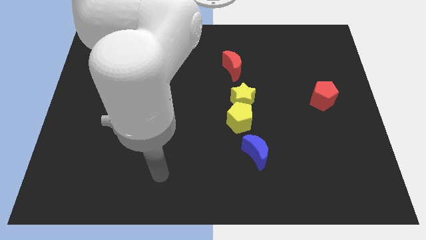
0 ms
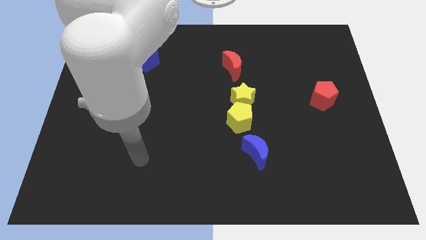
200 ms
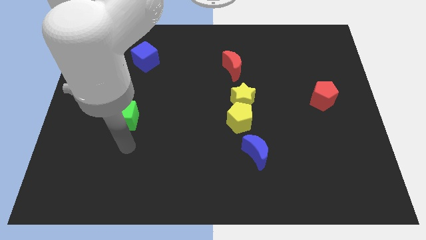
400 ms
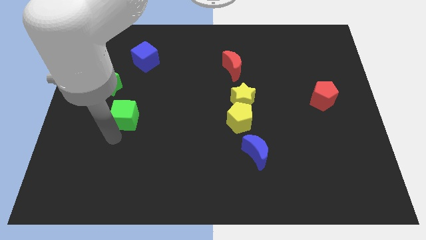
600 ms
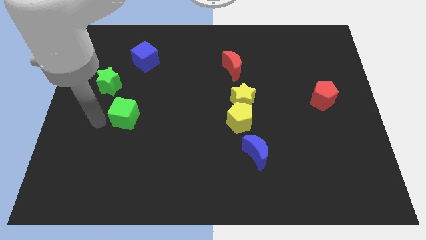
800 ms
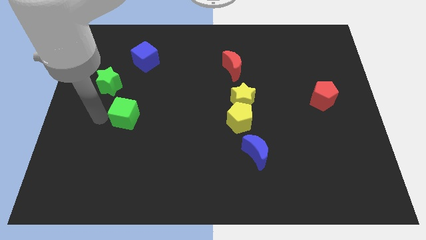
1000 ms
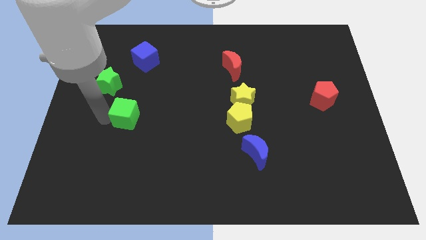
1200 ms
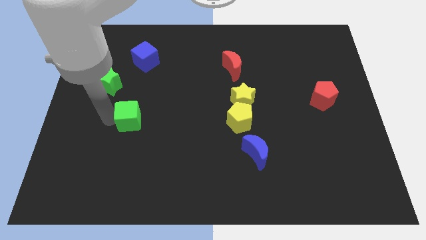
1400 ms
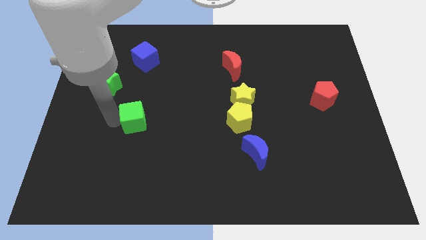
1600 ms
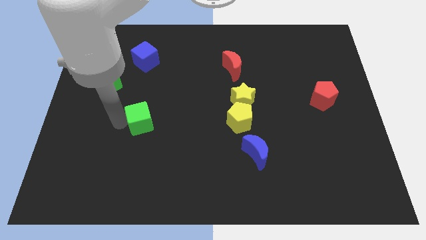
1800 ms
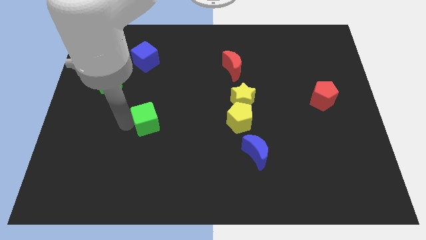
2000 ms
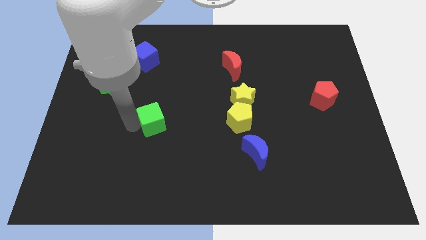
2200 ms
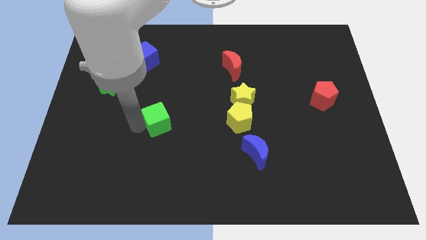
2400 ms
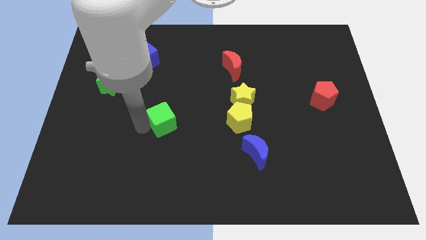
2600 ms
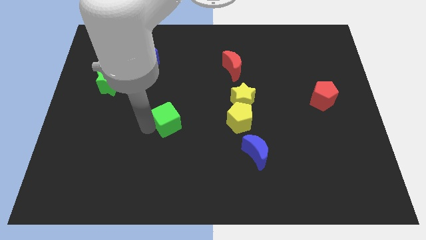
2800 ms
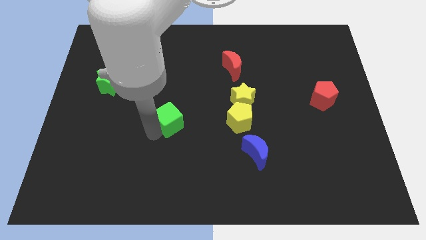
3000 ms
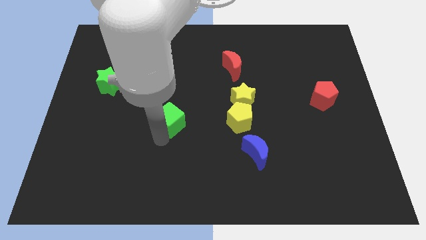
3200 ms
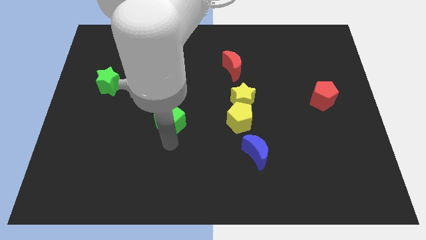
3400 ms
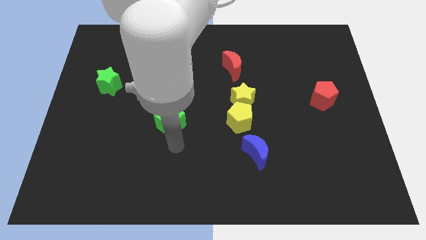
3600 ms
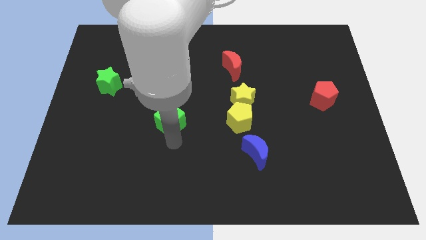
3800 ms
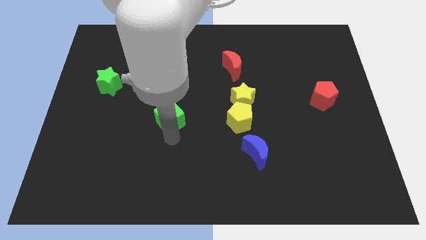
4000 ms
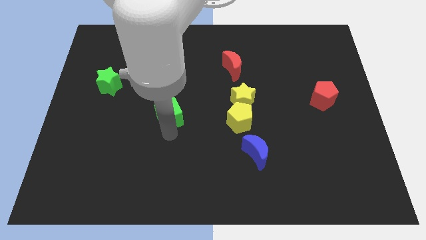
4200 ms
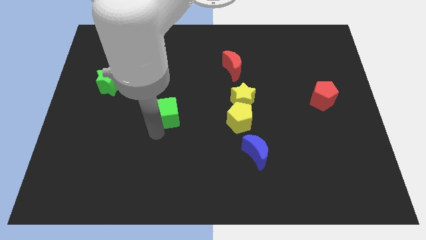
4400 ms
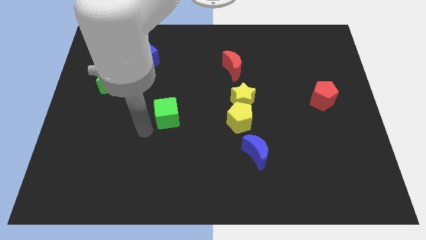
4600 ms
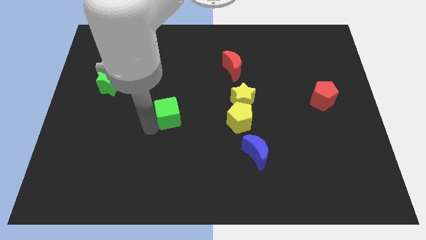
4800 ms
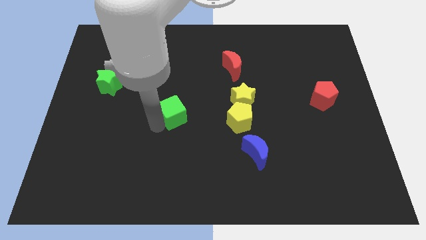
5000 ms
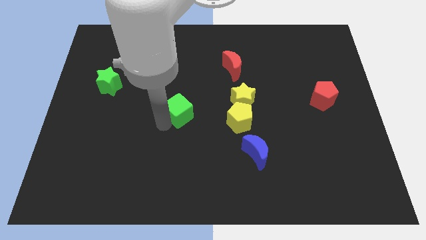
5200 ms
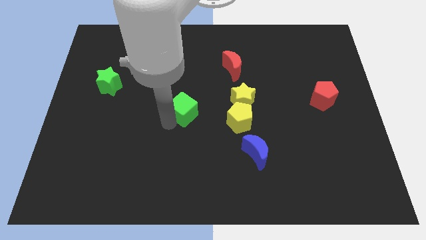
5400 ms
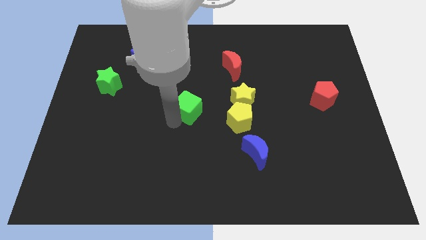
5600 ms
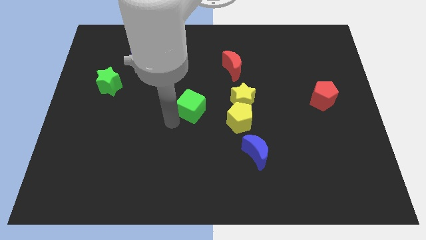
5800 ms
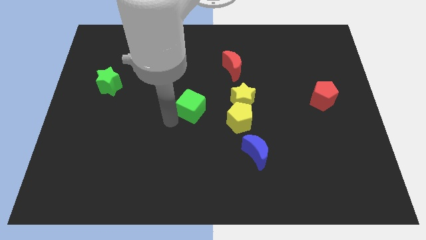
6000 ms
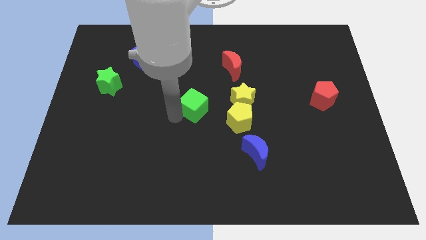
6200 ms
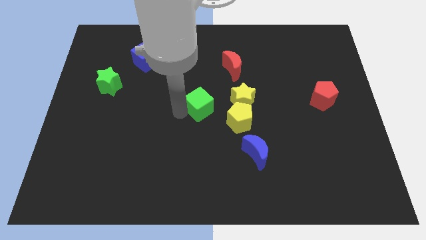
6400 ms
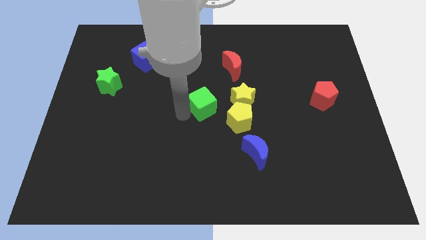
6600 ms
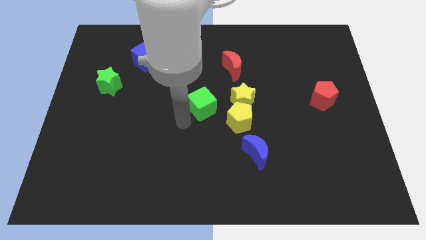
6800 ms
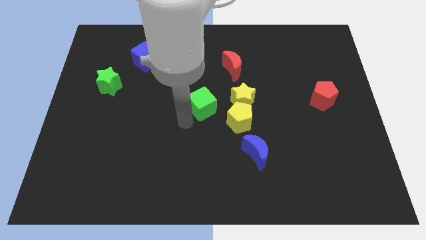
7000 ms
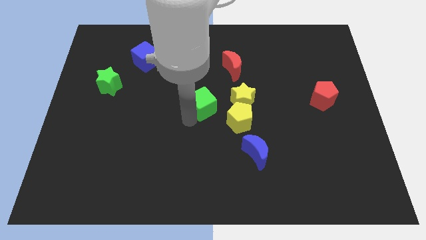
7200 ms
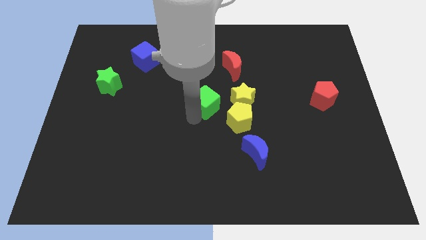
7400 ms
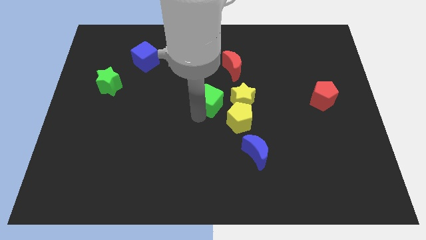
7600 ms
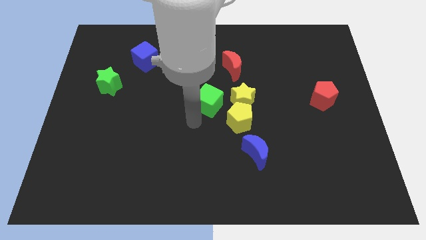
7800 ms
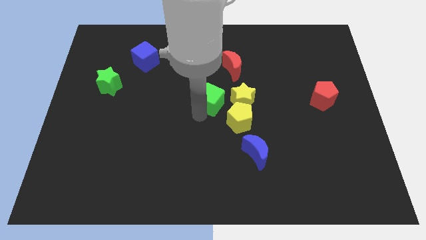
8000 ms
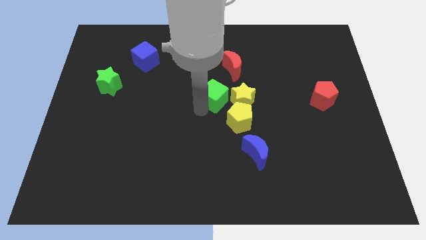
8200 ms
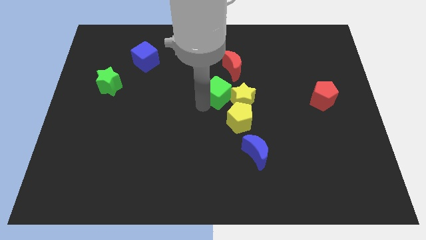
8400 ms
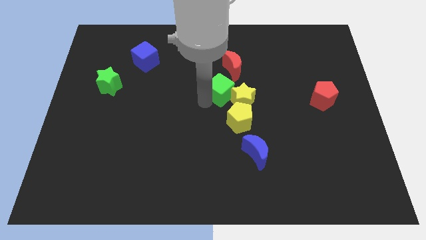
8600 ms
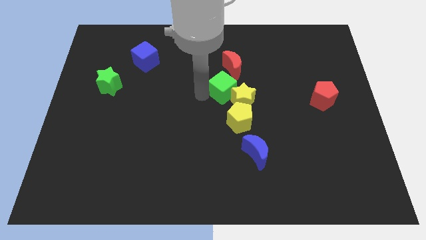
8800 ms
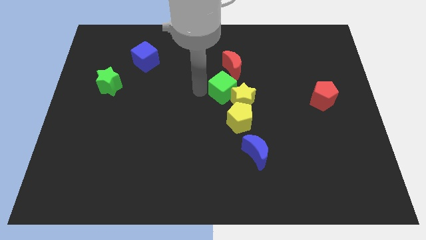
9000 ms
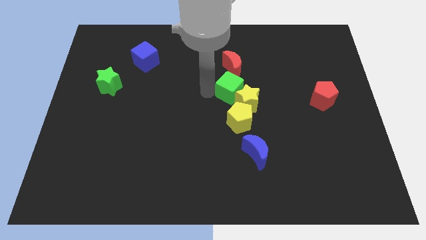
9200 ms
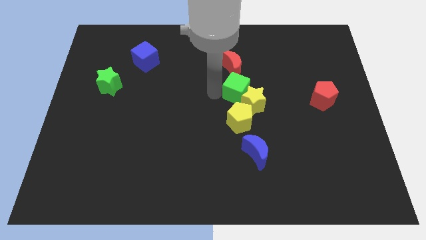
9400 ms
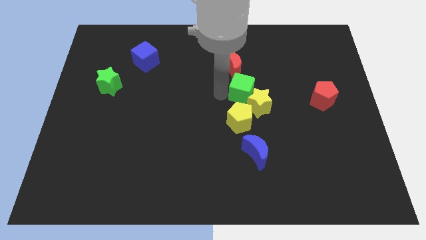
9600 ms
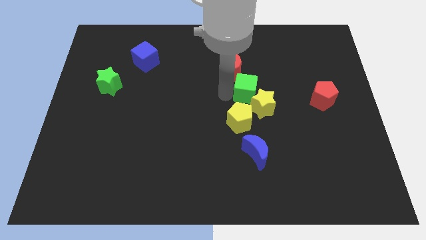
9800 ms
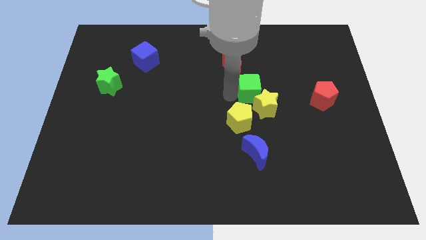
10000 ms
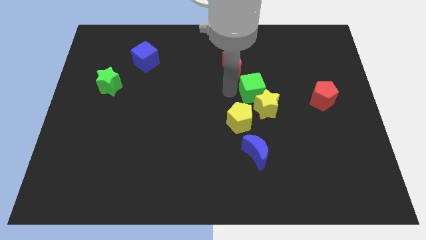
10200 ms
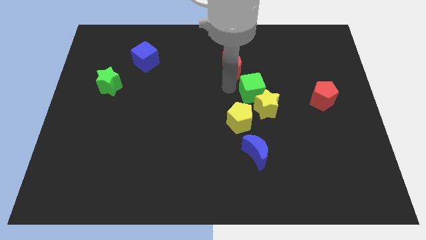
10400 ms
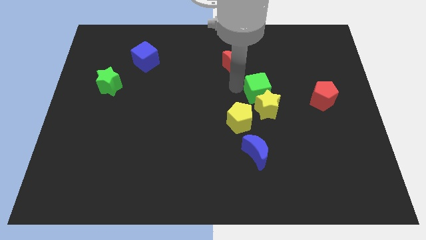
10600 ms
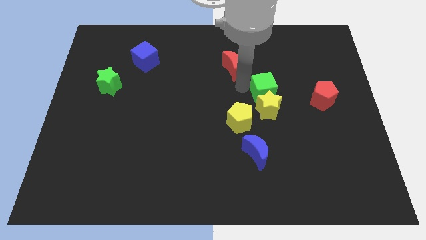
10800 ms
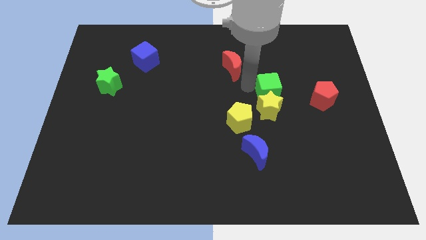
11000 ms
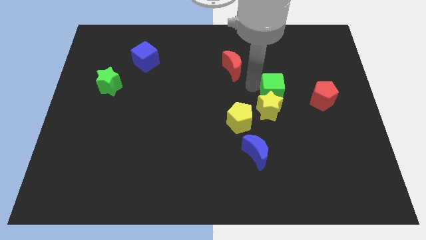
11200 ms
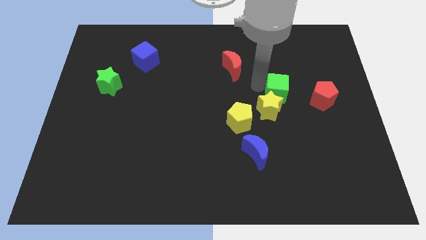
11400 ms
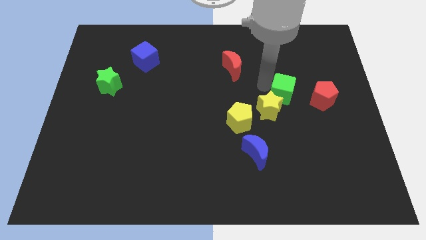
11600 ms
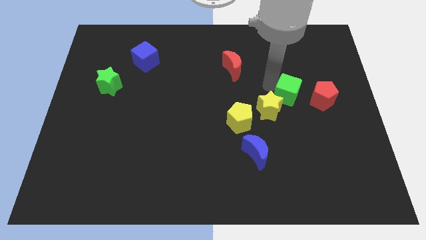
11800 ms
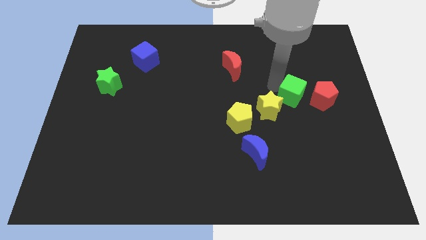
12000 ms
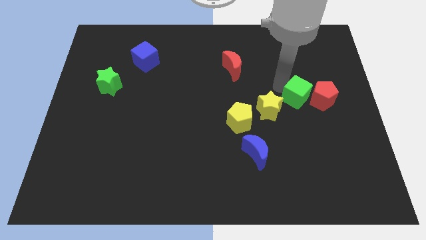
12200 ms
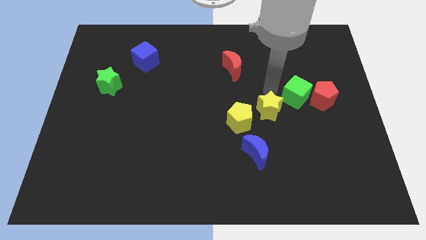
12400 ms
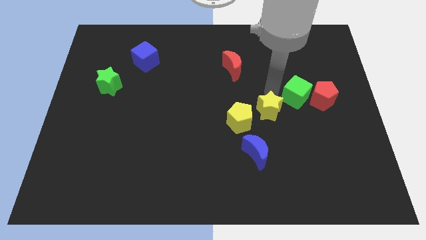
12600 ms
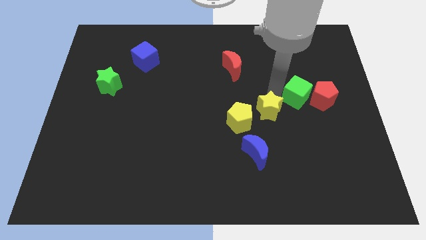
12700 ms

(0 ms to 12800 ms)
put the green cube towards the red pentagon

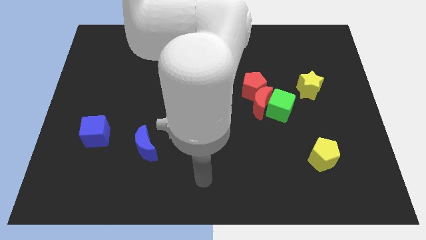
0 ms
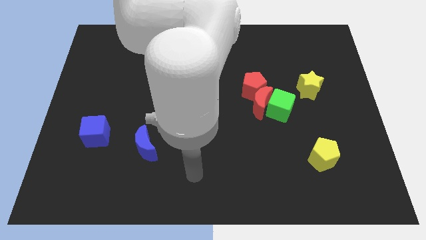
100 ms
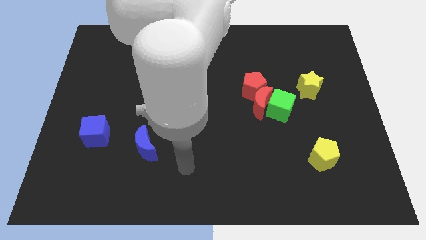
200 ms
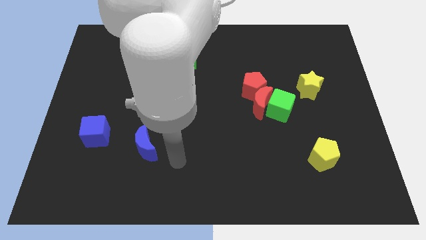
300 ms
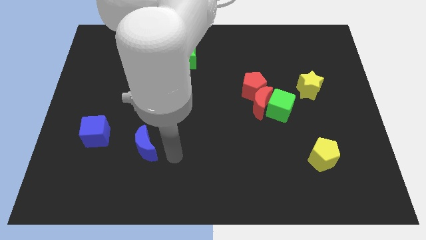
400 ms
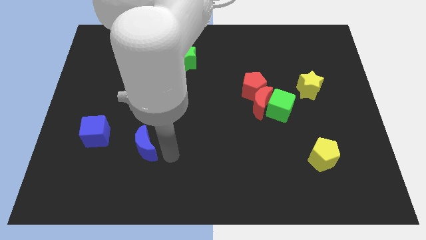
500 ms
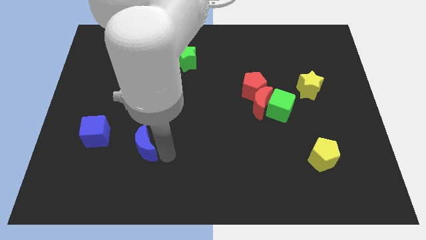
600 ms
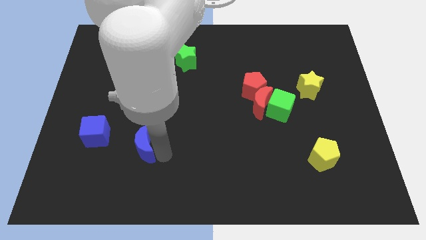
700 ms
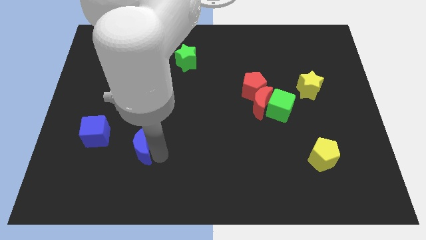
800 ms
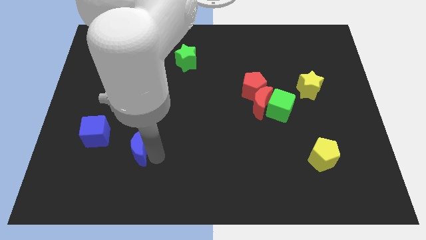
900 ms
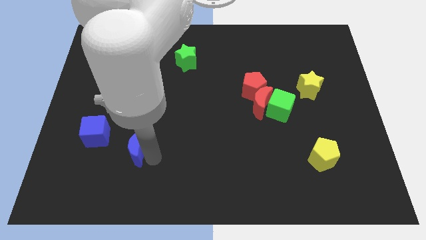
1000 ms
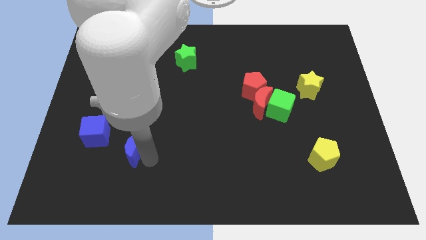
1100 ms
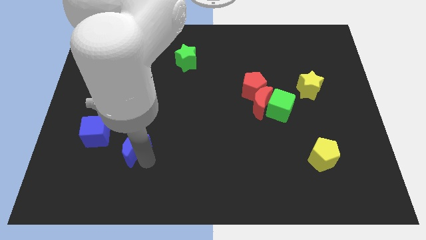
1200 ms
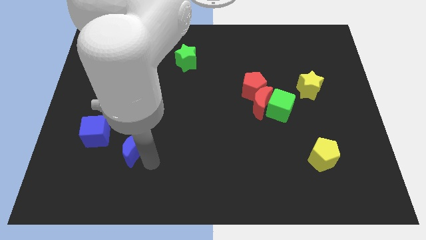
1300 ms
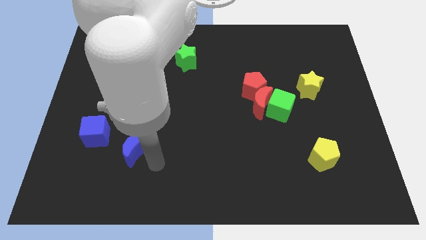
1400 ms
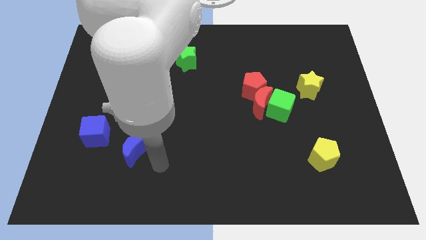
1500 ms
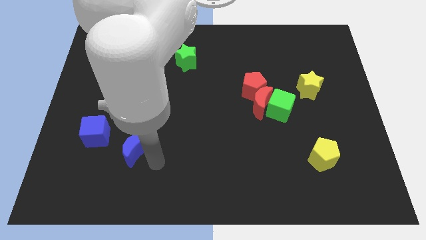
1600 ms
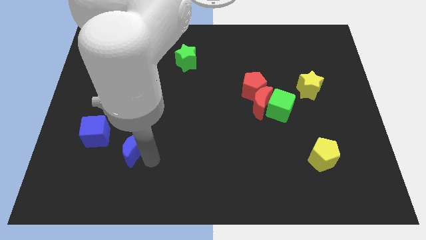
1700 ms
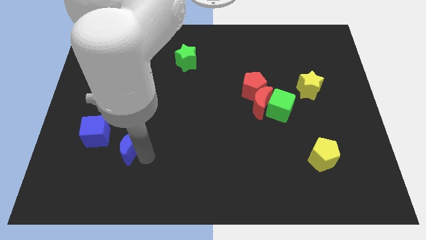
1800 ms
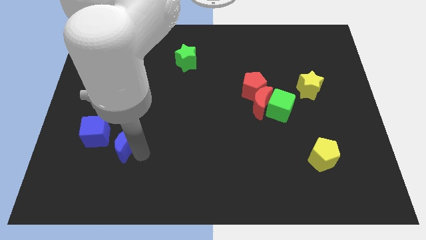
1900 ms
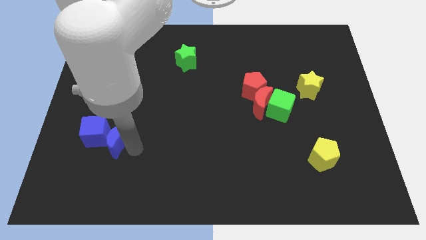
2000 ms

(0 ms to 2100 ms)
push the blue moon next to the blue cube
